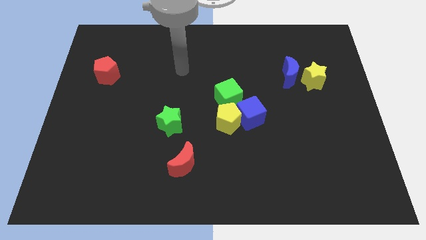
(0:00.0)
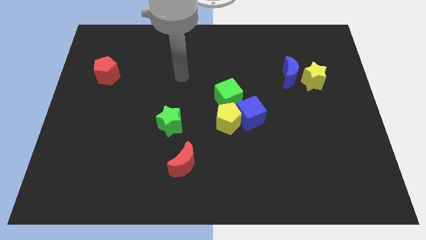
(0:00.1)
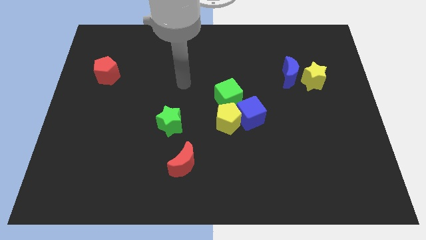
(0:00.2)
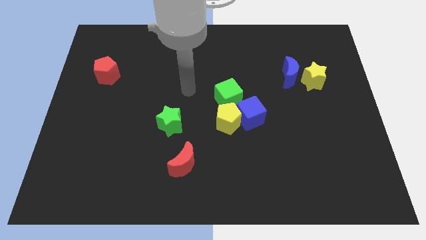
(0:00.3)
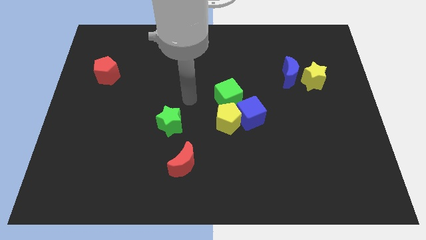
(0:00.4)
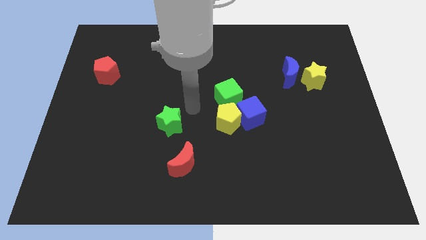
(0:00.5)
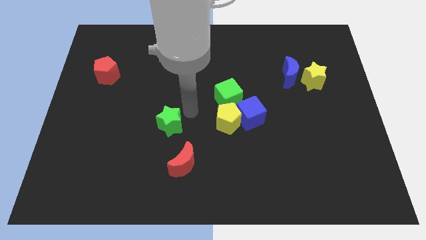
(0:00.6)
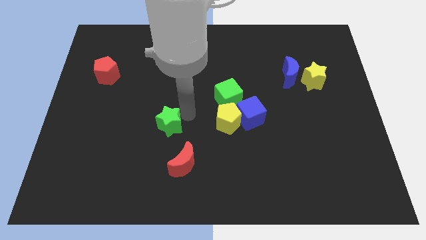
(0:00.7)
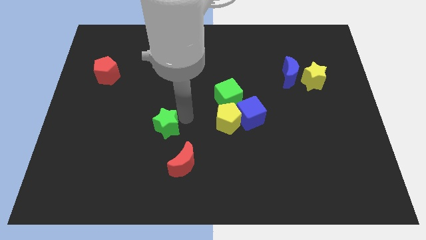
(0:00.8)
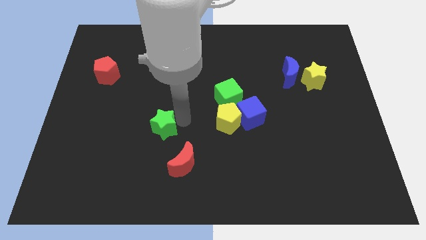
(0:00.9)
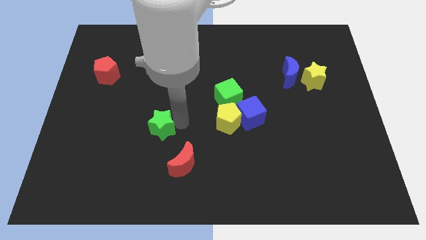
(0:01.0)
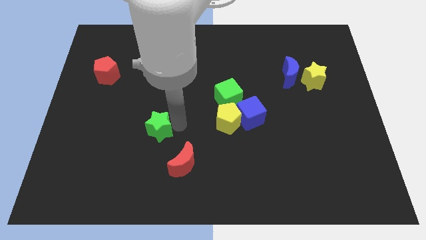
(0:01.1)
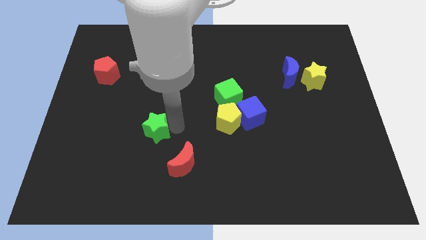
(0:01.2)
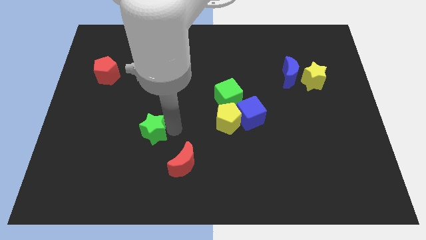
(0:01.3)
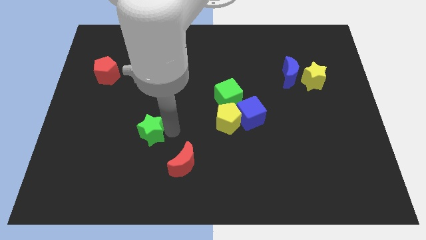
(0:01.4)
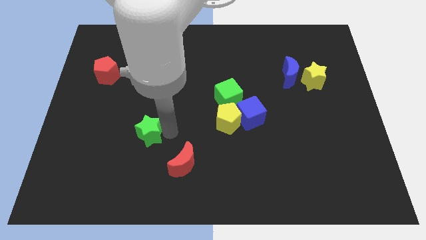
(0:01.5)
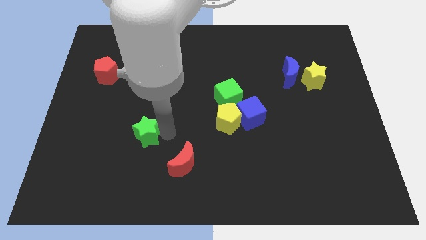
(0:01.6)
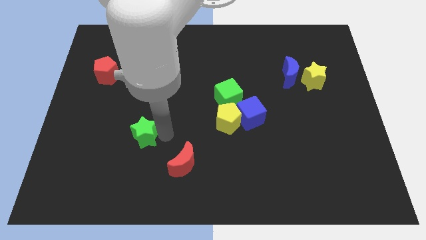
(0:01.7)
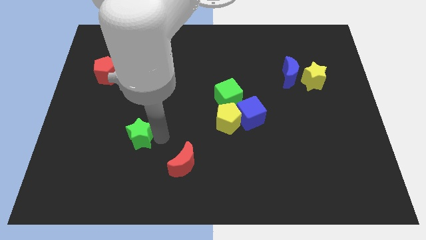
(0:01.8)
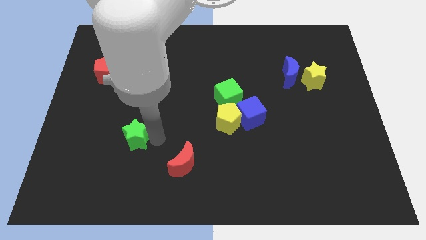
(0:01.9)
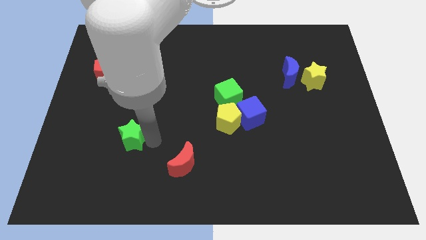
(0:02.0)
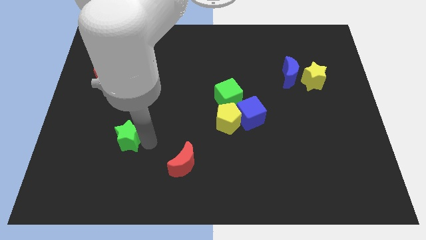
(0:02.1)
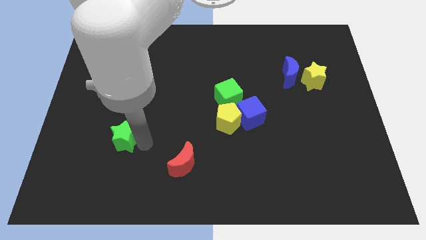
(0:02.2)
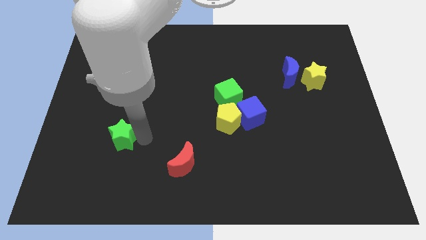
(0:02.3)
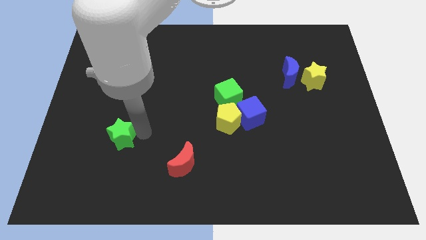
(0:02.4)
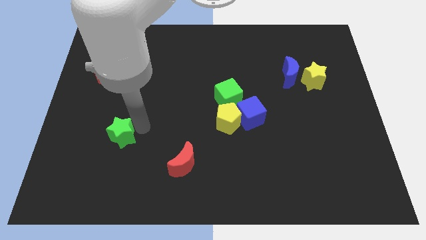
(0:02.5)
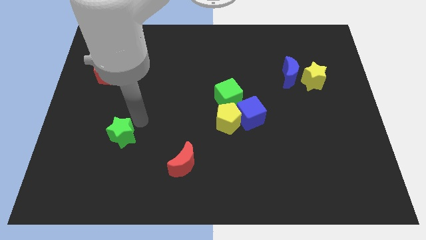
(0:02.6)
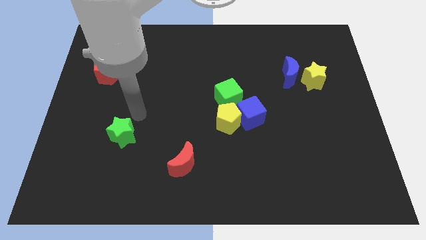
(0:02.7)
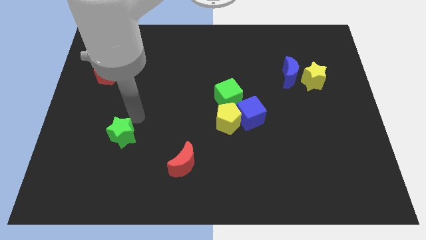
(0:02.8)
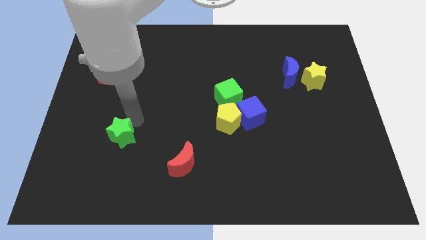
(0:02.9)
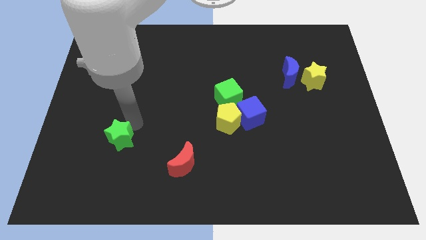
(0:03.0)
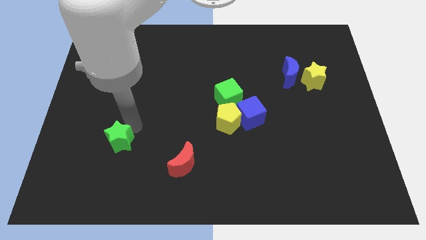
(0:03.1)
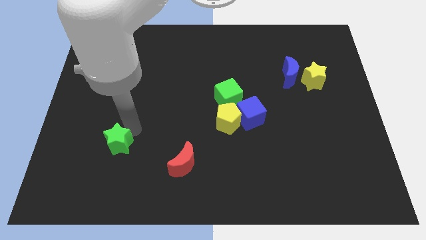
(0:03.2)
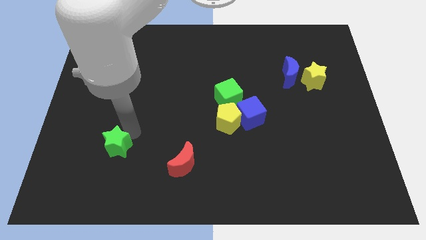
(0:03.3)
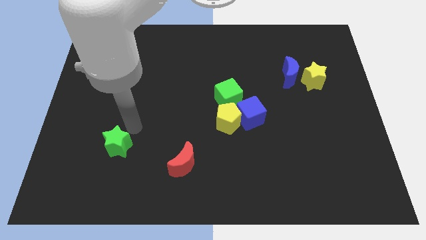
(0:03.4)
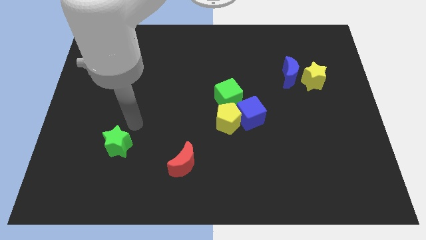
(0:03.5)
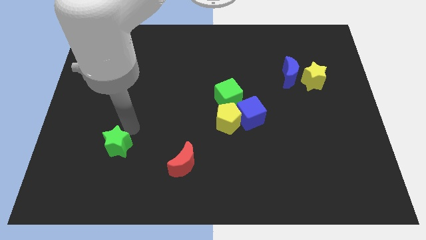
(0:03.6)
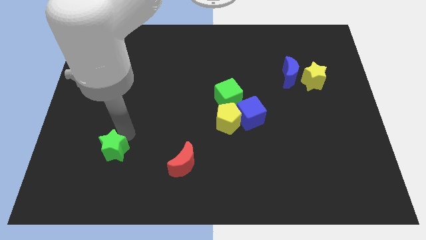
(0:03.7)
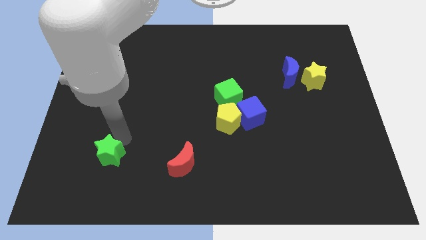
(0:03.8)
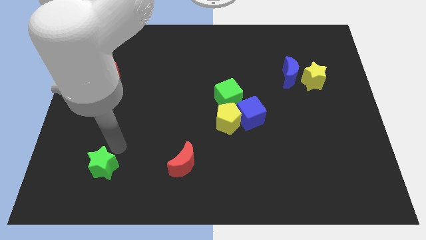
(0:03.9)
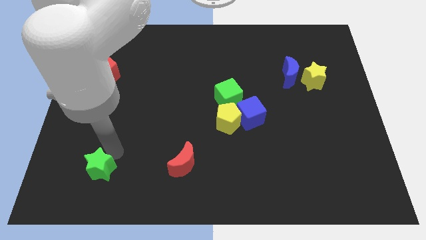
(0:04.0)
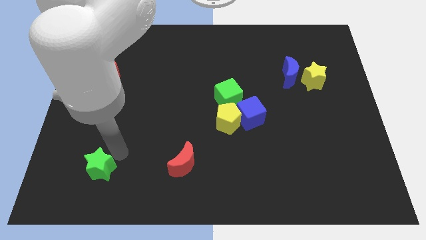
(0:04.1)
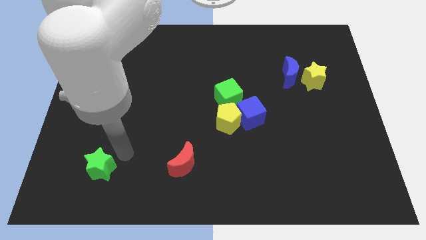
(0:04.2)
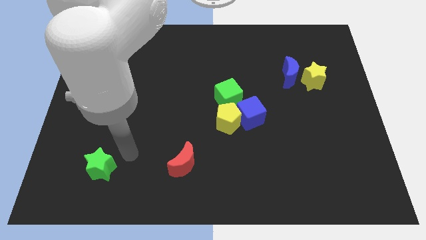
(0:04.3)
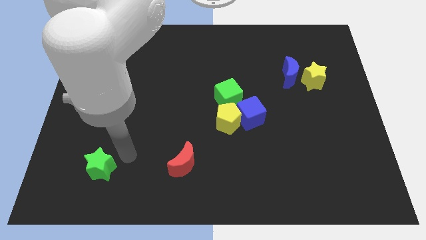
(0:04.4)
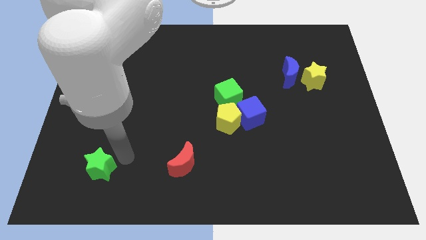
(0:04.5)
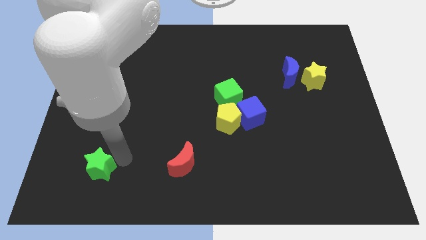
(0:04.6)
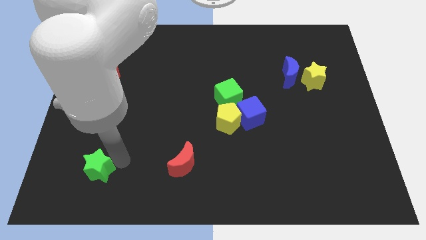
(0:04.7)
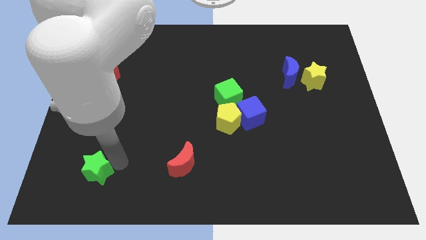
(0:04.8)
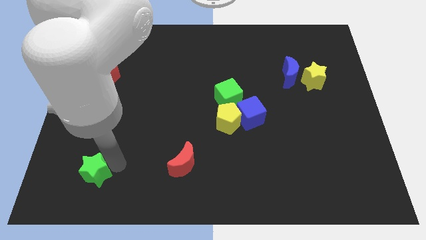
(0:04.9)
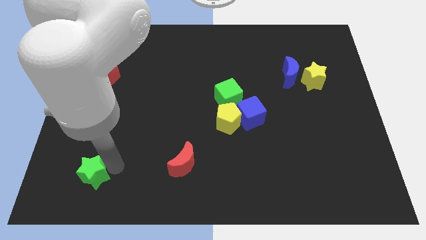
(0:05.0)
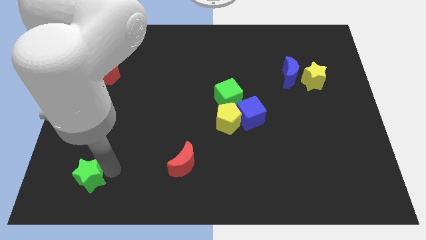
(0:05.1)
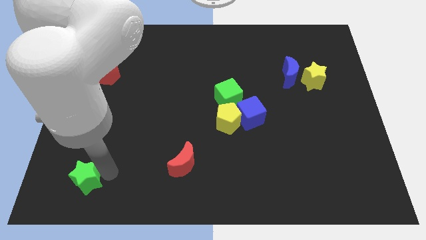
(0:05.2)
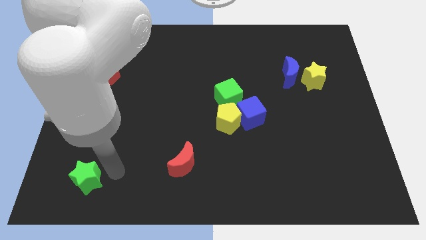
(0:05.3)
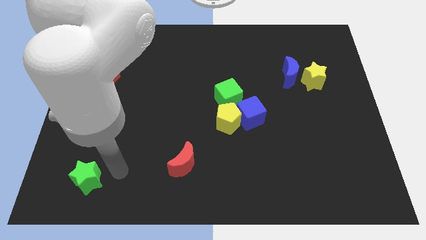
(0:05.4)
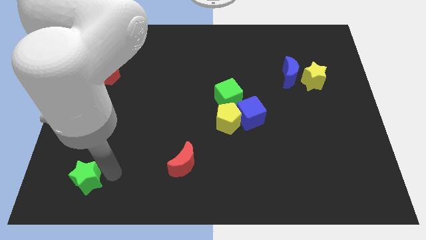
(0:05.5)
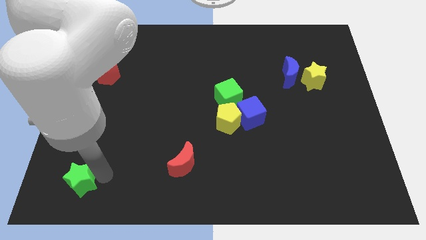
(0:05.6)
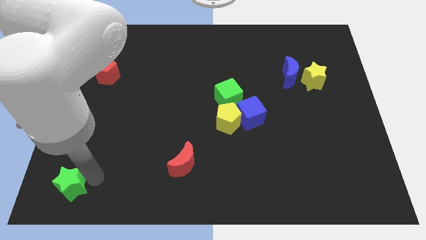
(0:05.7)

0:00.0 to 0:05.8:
slide the green star to the lower left corner
